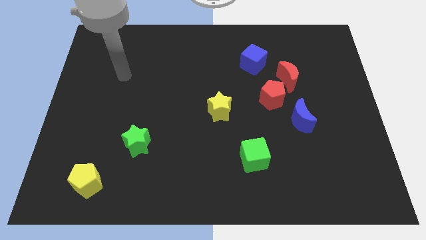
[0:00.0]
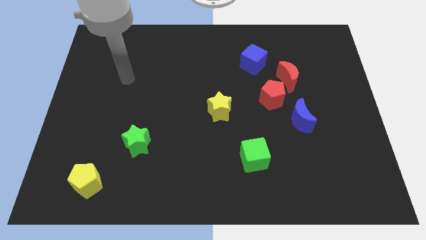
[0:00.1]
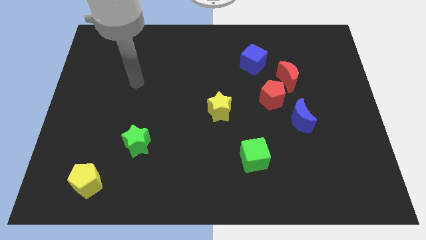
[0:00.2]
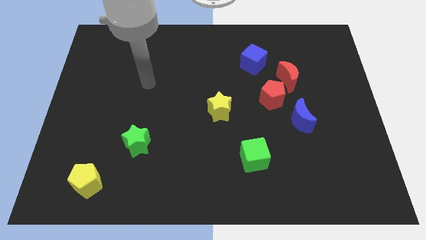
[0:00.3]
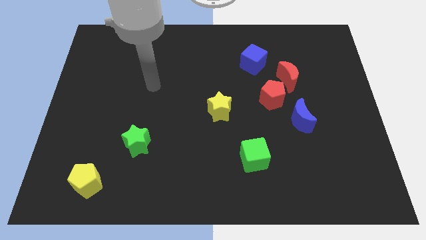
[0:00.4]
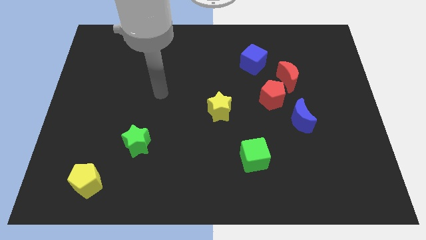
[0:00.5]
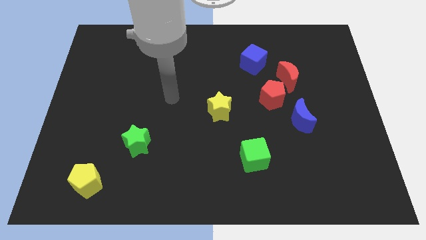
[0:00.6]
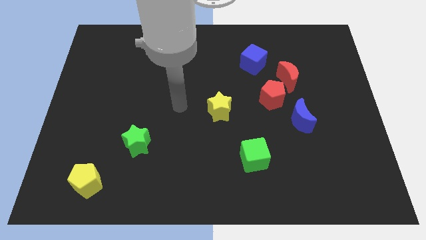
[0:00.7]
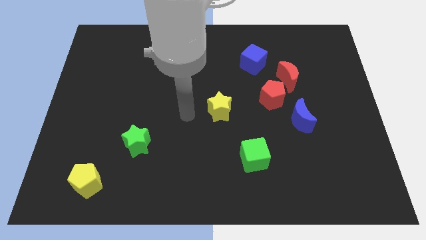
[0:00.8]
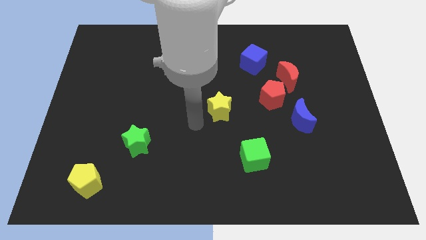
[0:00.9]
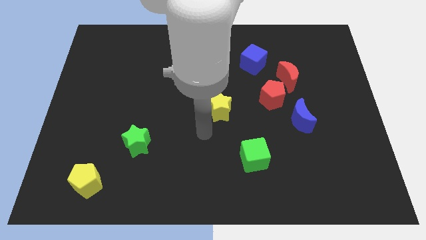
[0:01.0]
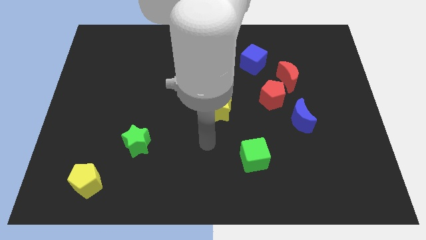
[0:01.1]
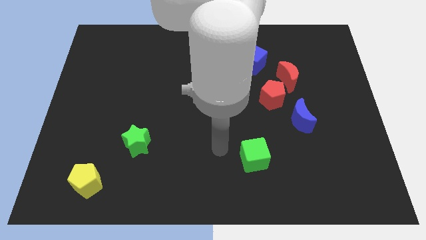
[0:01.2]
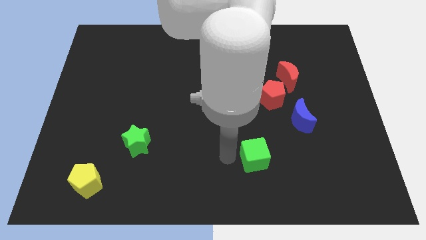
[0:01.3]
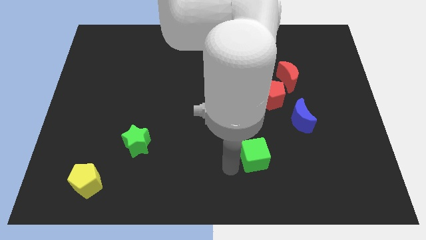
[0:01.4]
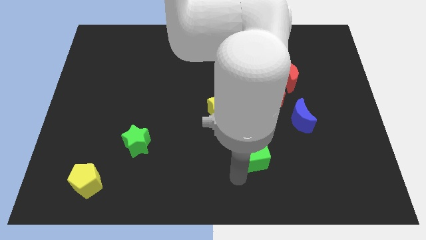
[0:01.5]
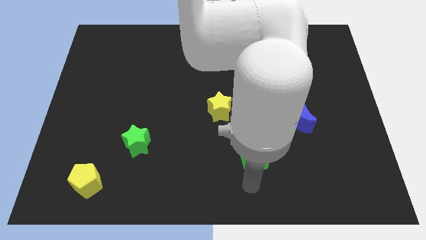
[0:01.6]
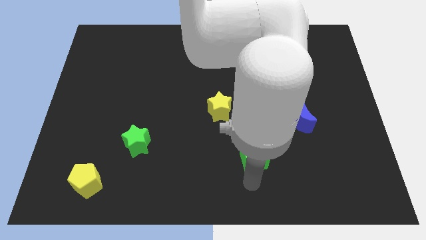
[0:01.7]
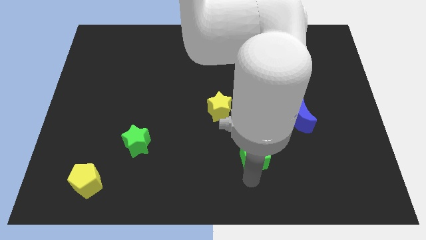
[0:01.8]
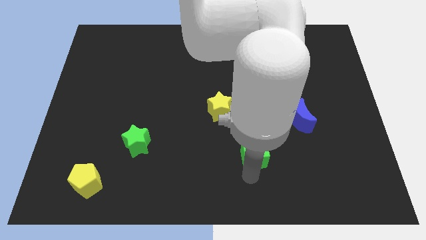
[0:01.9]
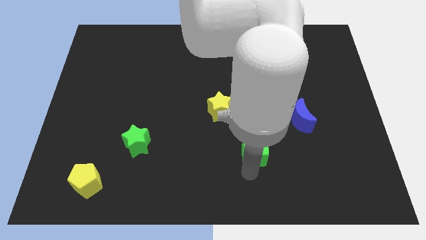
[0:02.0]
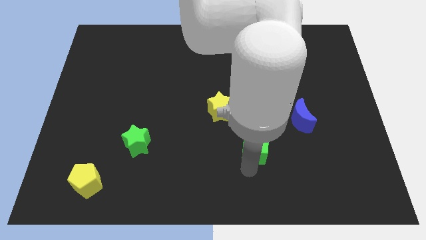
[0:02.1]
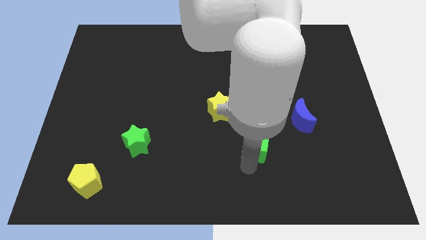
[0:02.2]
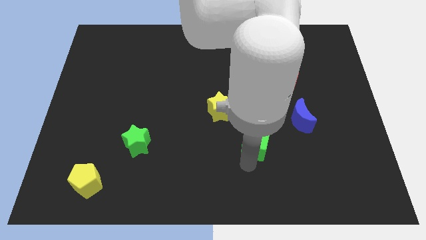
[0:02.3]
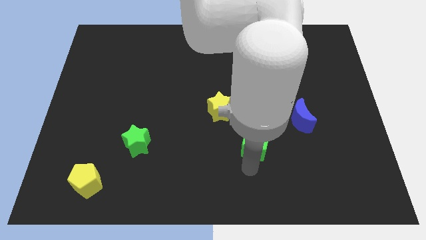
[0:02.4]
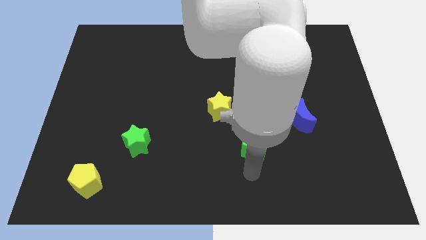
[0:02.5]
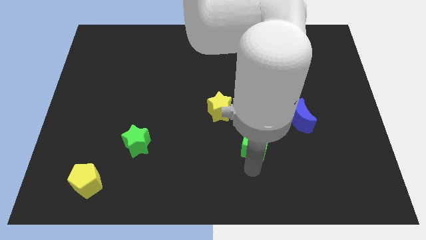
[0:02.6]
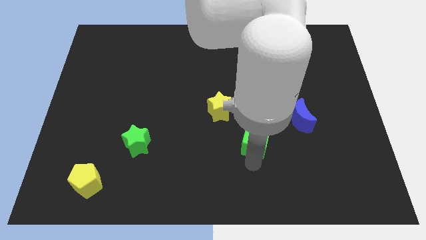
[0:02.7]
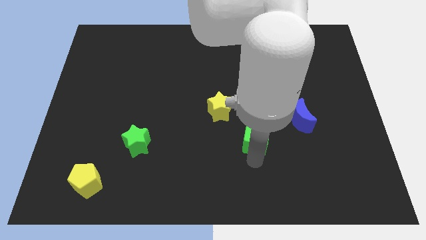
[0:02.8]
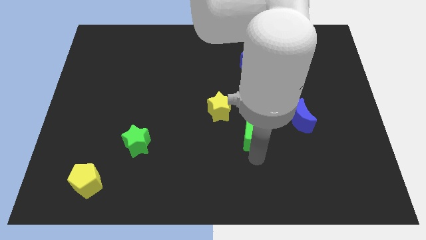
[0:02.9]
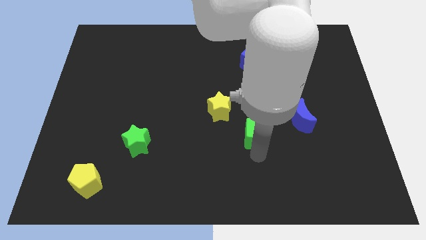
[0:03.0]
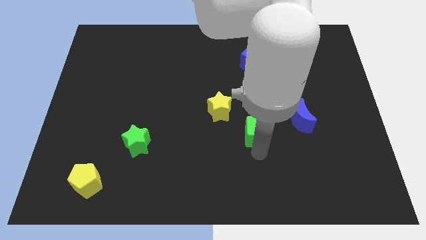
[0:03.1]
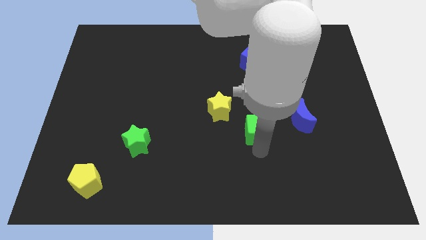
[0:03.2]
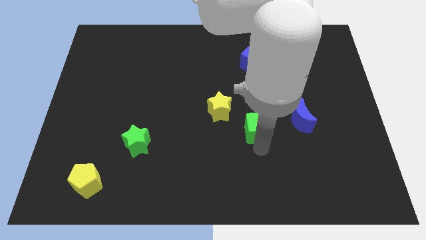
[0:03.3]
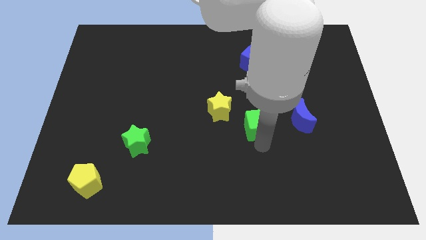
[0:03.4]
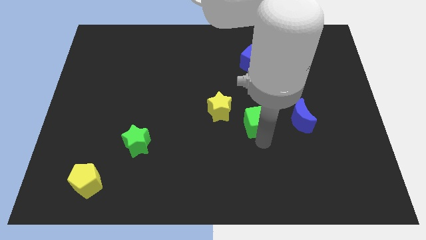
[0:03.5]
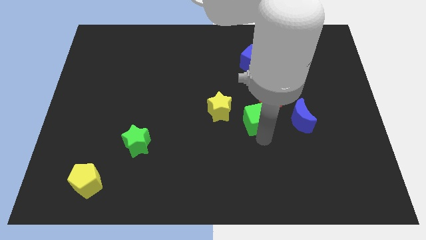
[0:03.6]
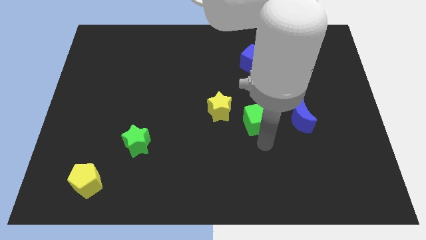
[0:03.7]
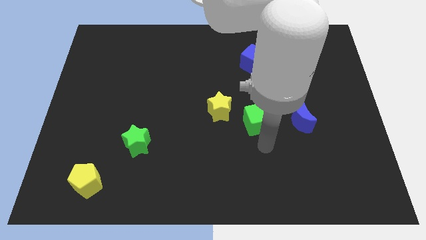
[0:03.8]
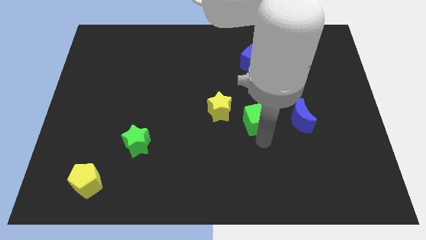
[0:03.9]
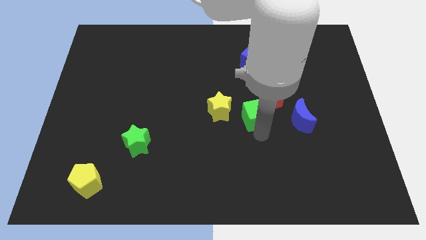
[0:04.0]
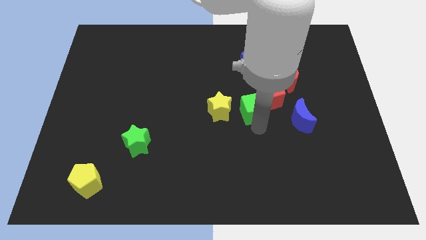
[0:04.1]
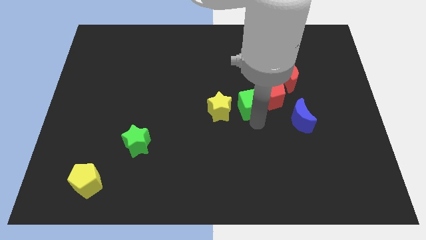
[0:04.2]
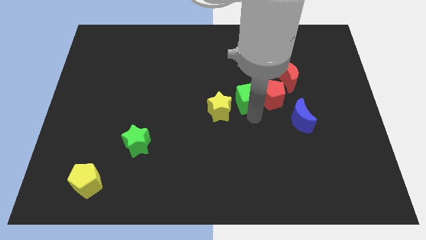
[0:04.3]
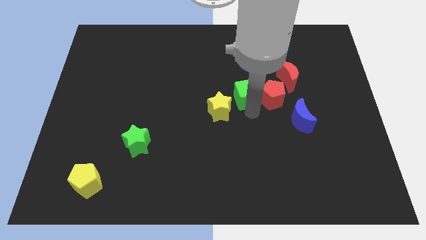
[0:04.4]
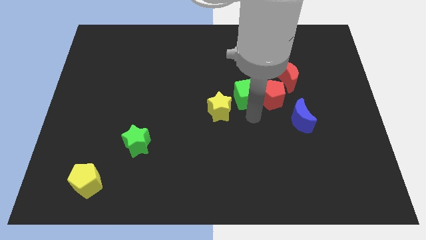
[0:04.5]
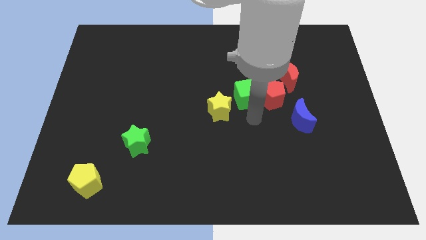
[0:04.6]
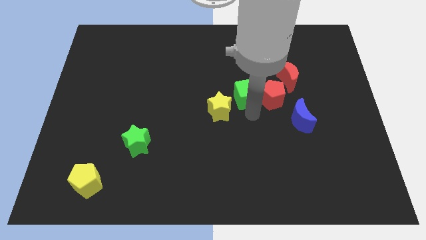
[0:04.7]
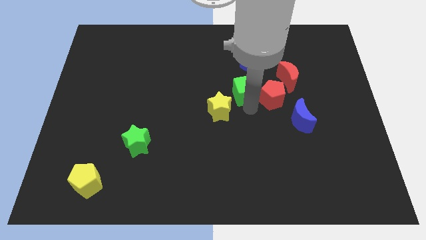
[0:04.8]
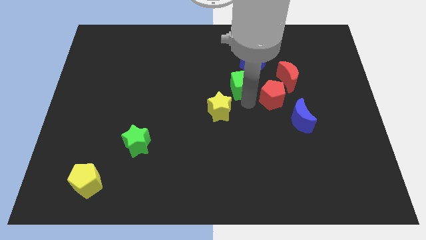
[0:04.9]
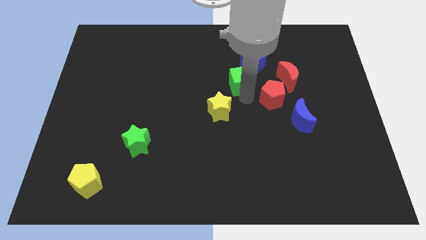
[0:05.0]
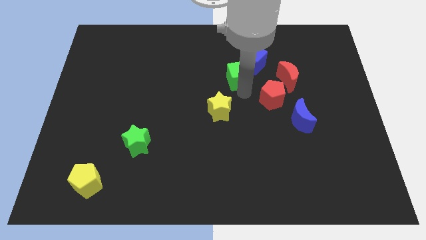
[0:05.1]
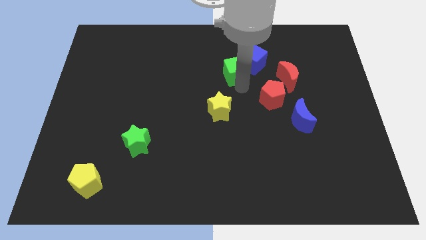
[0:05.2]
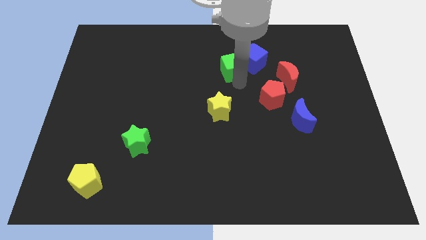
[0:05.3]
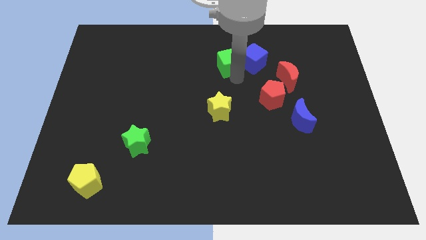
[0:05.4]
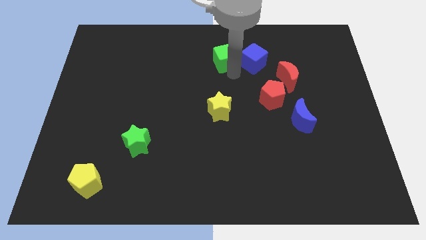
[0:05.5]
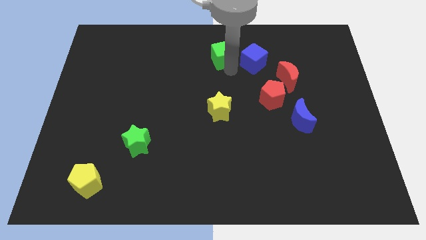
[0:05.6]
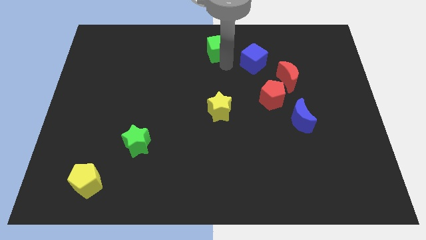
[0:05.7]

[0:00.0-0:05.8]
move the green cube to the top
